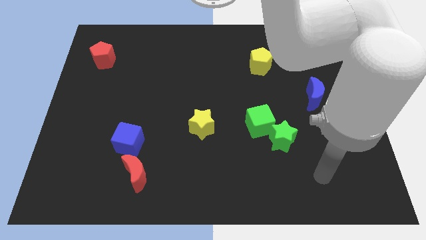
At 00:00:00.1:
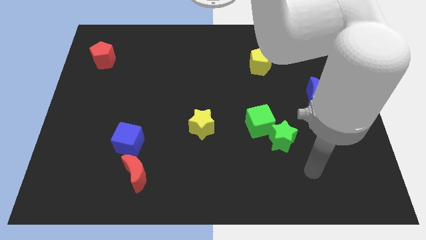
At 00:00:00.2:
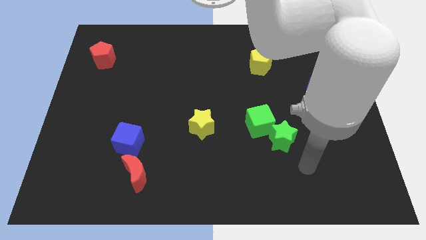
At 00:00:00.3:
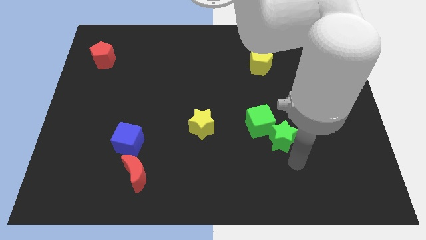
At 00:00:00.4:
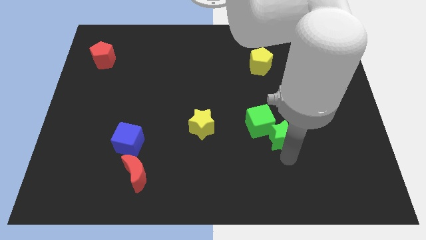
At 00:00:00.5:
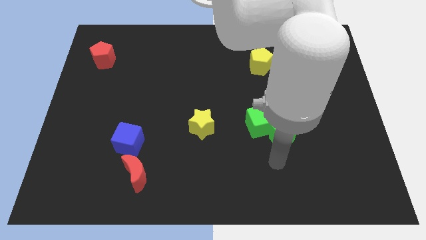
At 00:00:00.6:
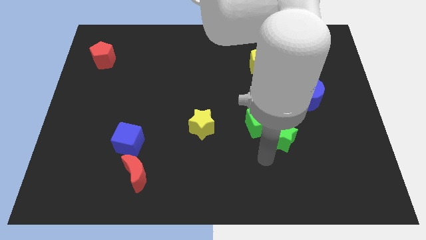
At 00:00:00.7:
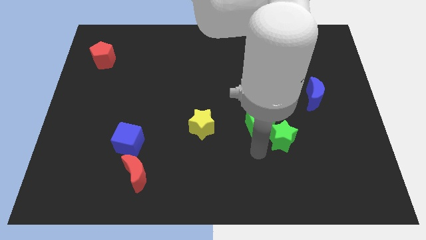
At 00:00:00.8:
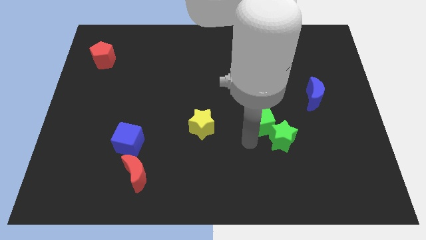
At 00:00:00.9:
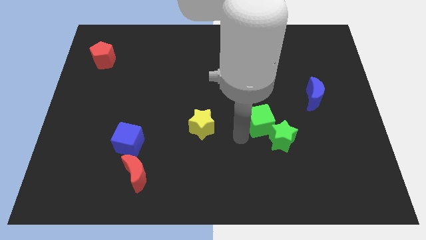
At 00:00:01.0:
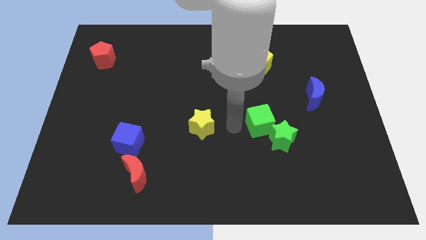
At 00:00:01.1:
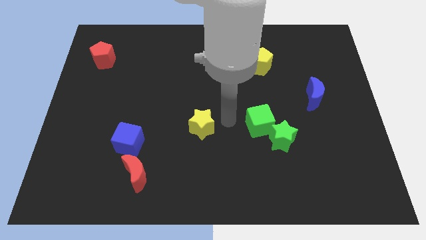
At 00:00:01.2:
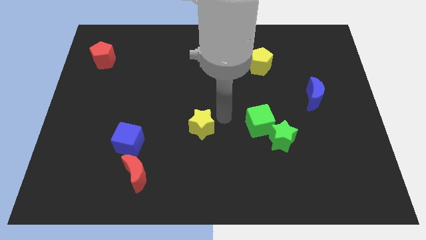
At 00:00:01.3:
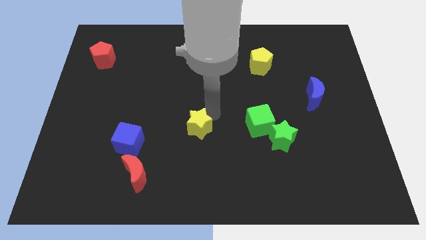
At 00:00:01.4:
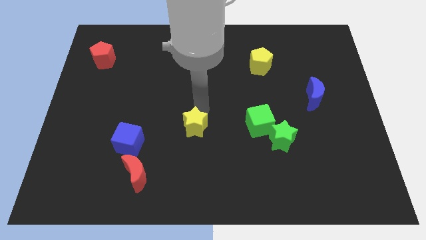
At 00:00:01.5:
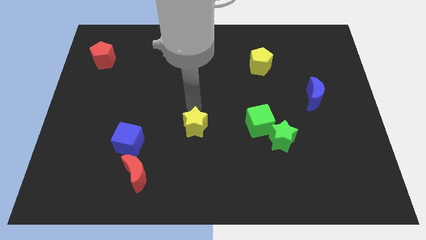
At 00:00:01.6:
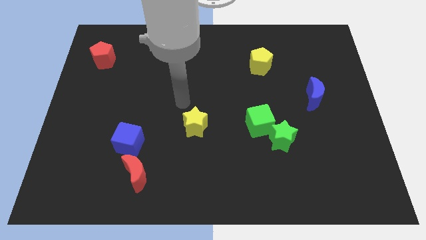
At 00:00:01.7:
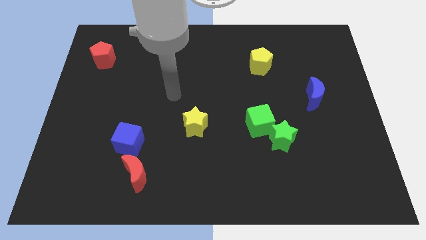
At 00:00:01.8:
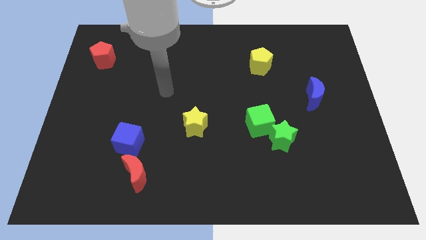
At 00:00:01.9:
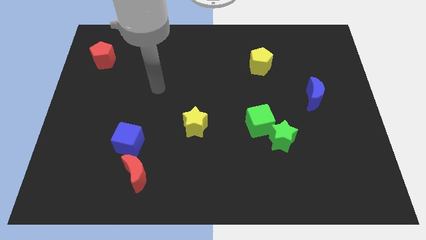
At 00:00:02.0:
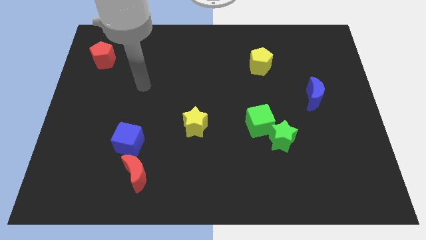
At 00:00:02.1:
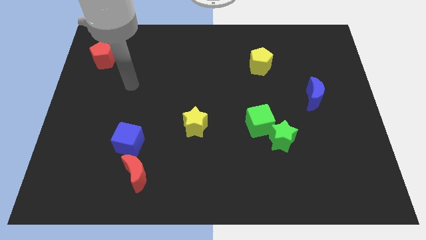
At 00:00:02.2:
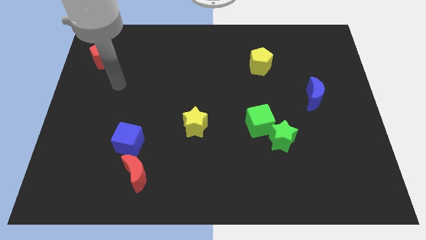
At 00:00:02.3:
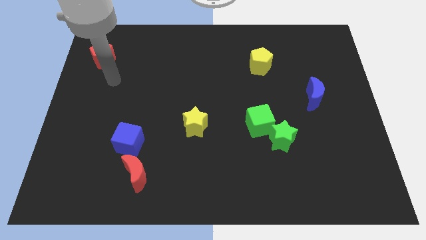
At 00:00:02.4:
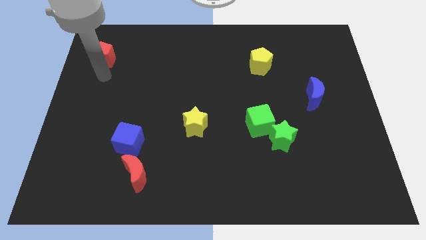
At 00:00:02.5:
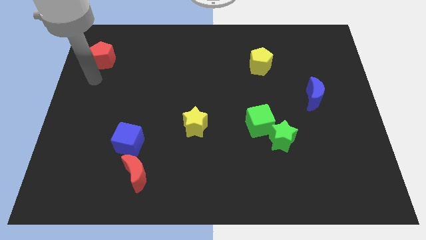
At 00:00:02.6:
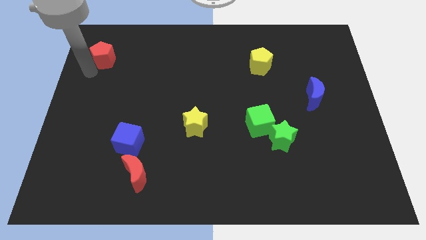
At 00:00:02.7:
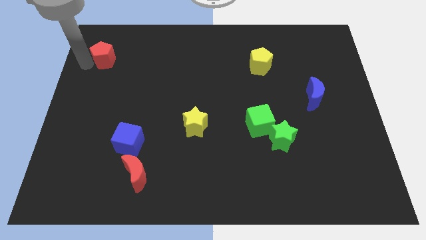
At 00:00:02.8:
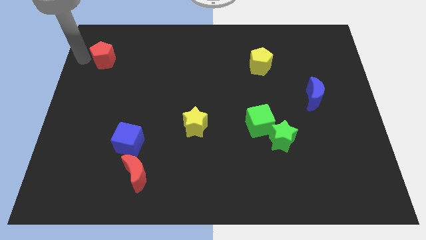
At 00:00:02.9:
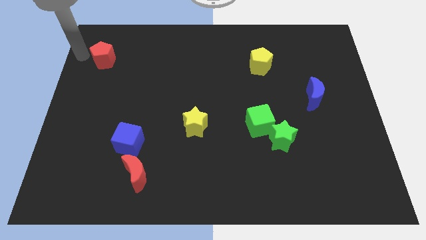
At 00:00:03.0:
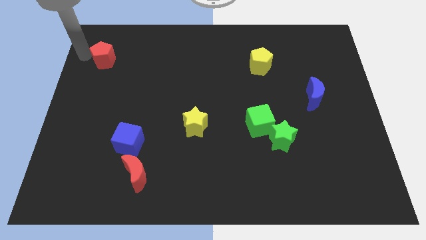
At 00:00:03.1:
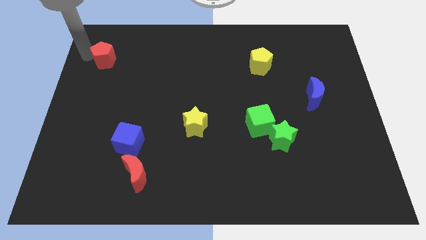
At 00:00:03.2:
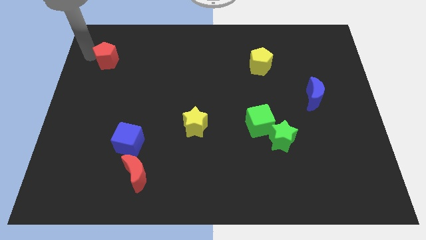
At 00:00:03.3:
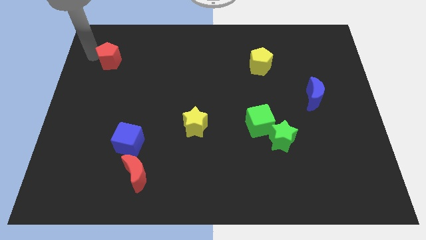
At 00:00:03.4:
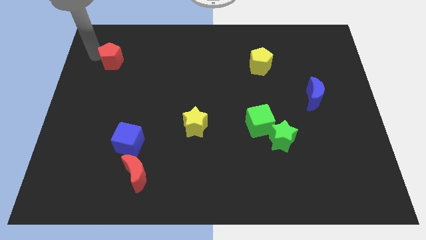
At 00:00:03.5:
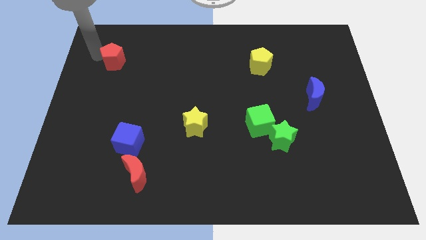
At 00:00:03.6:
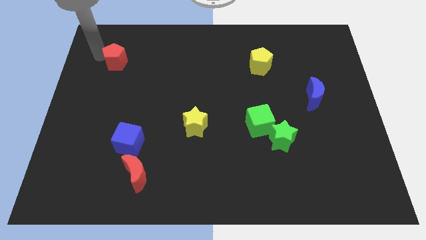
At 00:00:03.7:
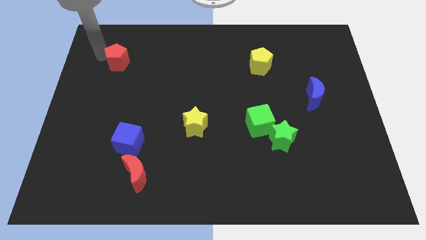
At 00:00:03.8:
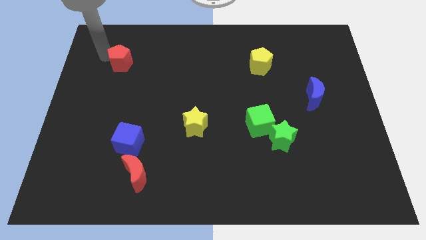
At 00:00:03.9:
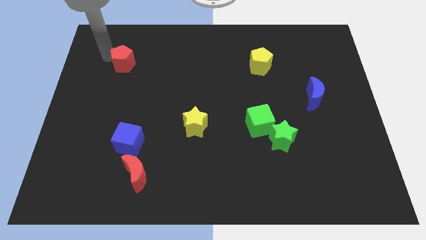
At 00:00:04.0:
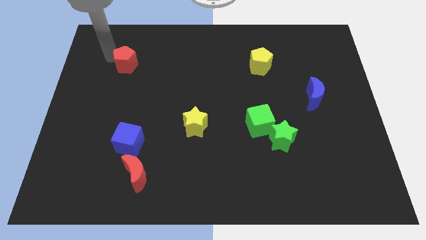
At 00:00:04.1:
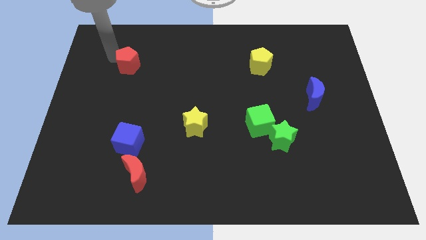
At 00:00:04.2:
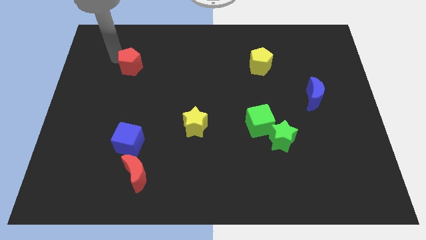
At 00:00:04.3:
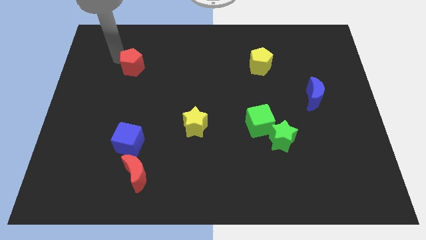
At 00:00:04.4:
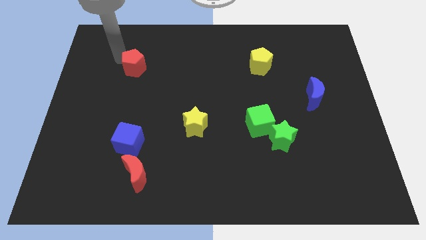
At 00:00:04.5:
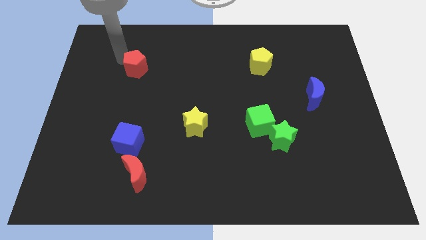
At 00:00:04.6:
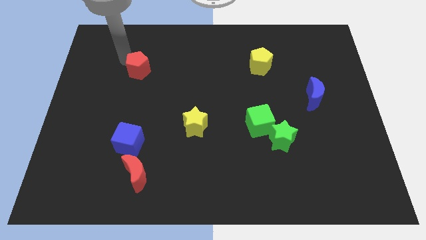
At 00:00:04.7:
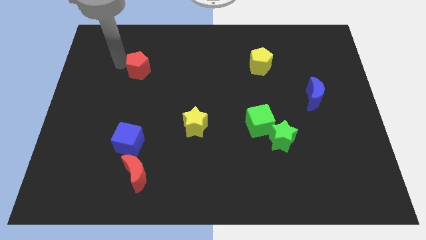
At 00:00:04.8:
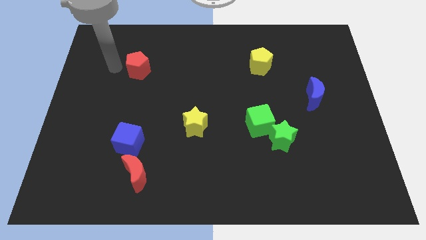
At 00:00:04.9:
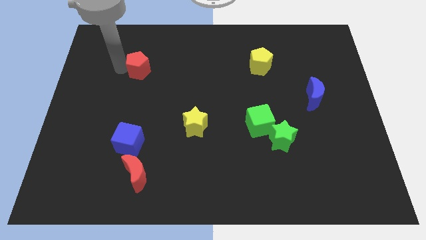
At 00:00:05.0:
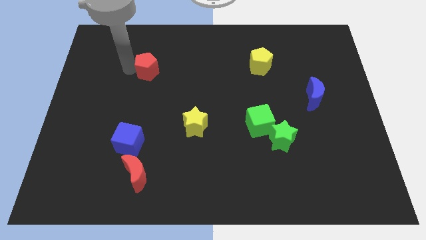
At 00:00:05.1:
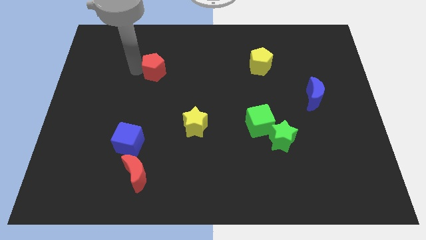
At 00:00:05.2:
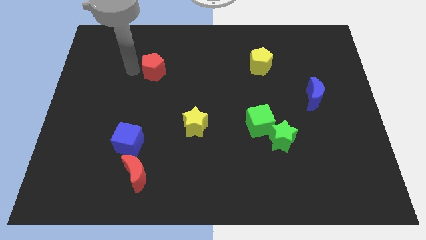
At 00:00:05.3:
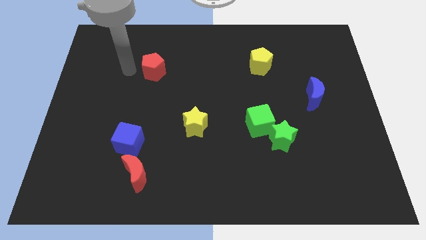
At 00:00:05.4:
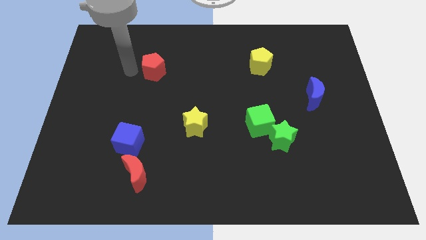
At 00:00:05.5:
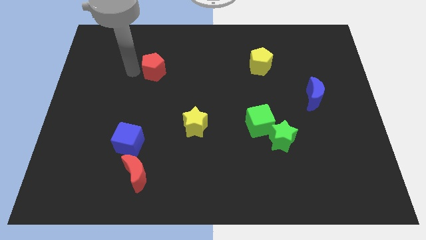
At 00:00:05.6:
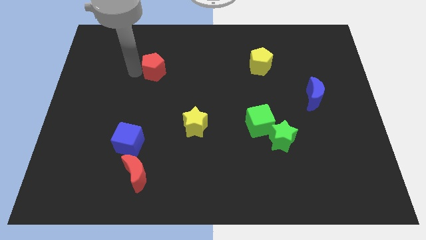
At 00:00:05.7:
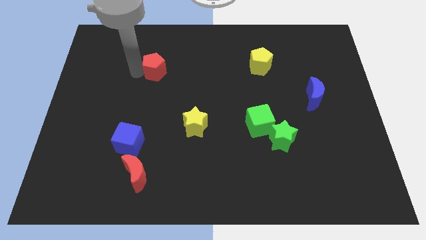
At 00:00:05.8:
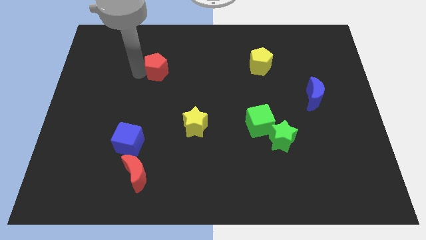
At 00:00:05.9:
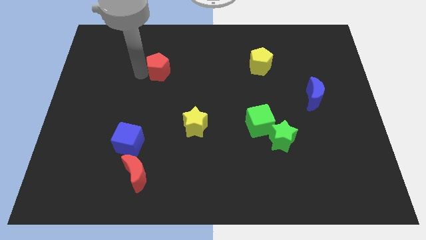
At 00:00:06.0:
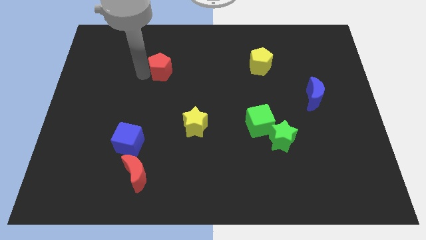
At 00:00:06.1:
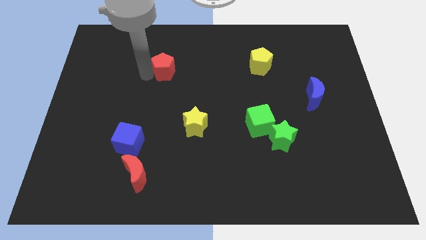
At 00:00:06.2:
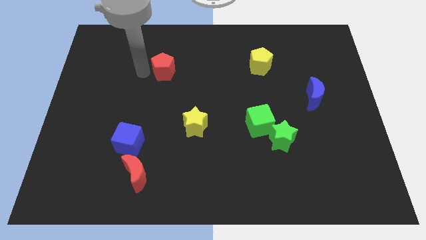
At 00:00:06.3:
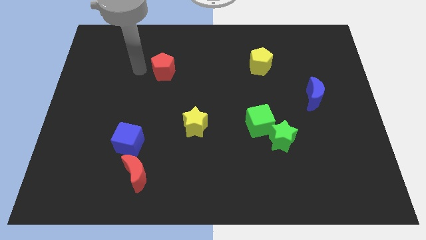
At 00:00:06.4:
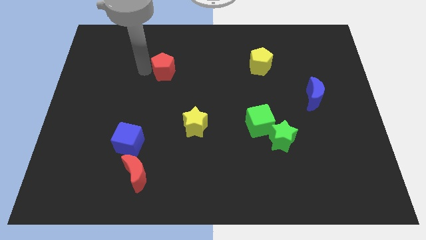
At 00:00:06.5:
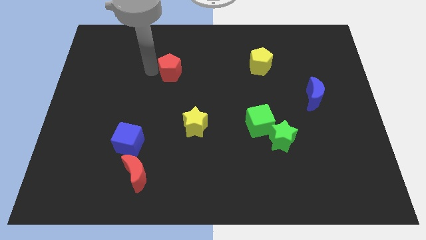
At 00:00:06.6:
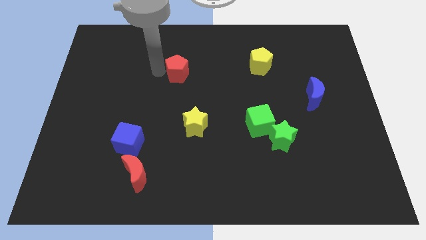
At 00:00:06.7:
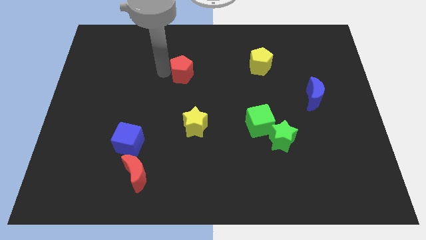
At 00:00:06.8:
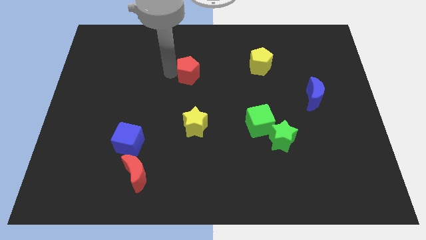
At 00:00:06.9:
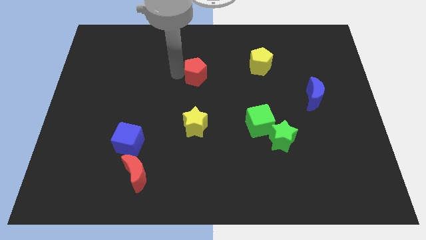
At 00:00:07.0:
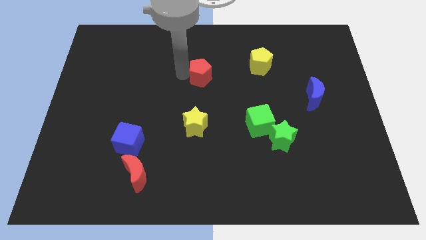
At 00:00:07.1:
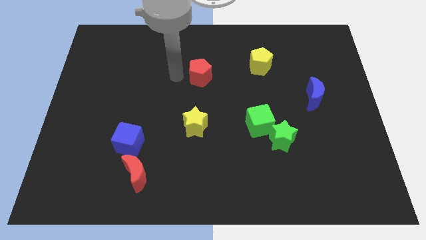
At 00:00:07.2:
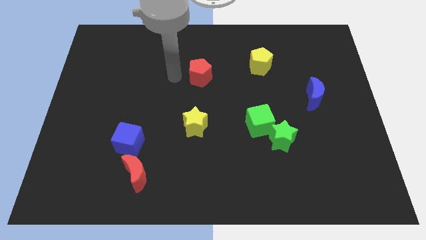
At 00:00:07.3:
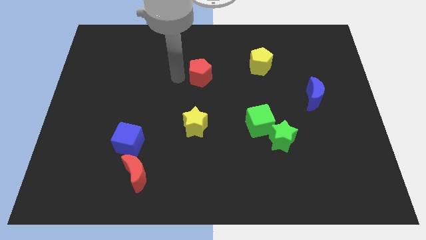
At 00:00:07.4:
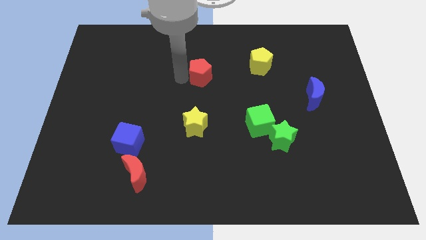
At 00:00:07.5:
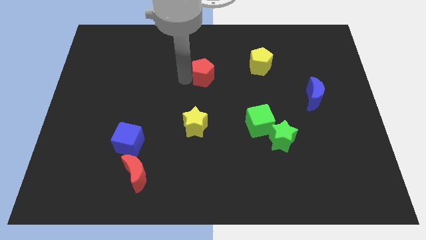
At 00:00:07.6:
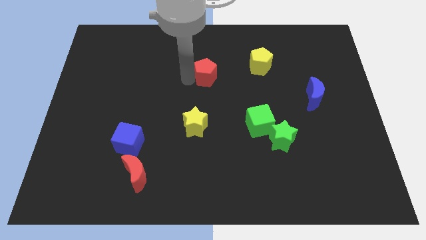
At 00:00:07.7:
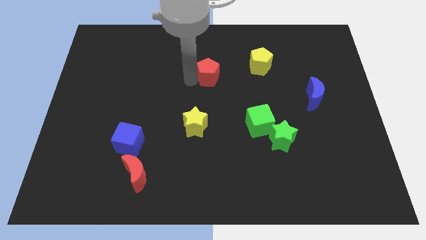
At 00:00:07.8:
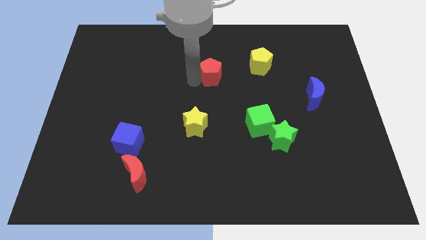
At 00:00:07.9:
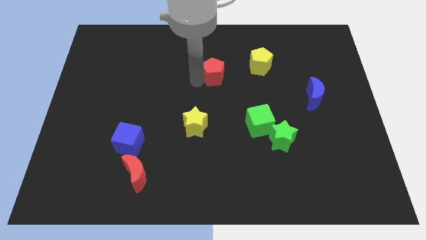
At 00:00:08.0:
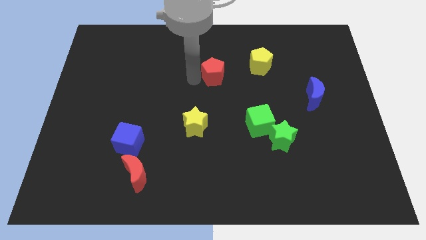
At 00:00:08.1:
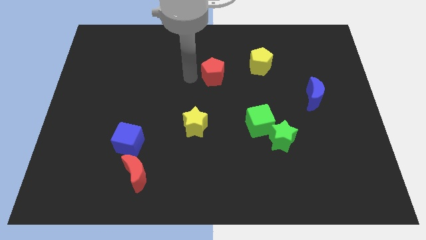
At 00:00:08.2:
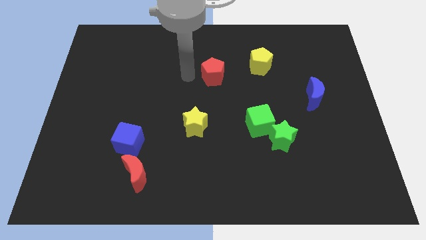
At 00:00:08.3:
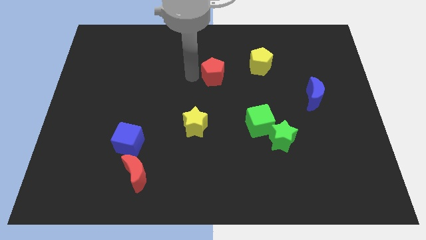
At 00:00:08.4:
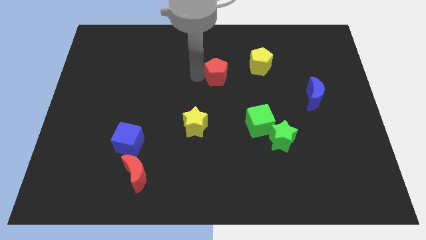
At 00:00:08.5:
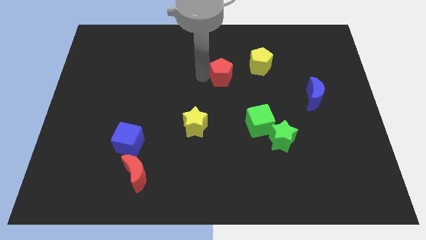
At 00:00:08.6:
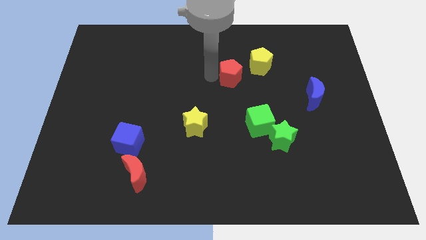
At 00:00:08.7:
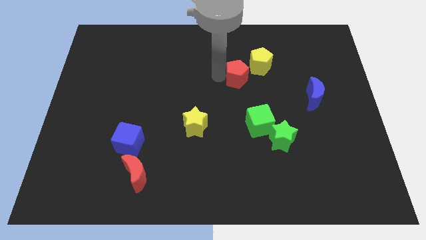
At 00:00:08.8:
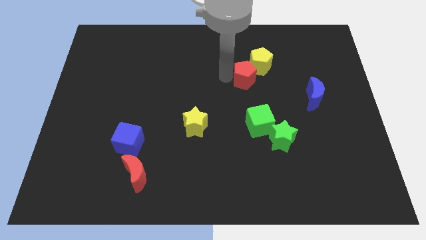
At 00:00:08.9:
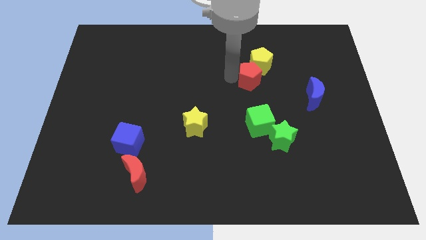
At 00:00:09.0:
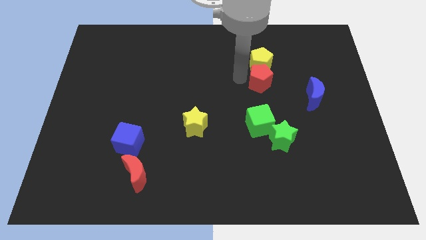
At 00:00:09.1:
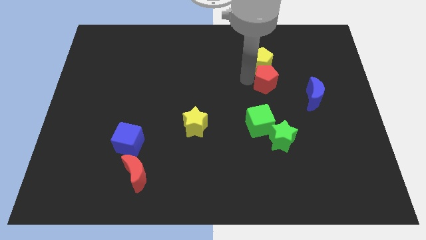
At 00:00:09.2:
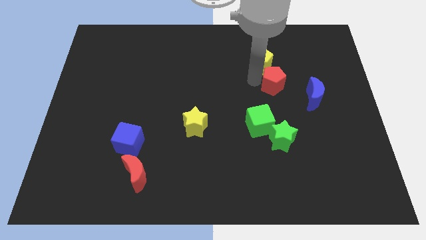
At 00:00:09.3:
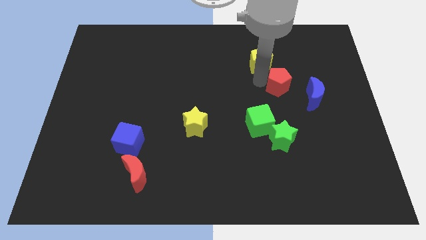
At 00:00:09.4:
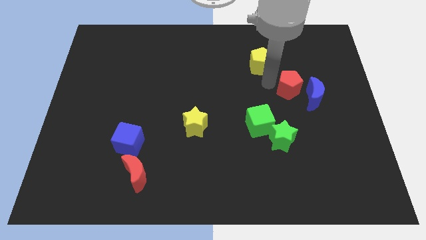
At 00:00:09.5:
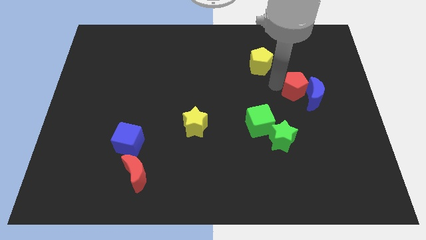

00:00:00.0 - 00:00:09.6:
move the red pentagon to the blue moon
